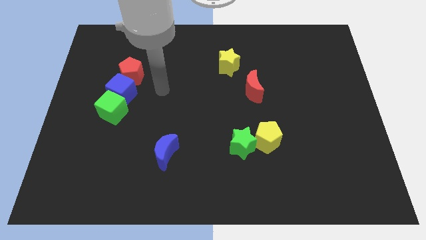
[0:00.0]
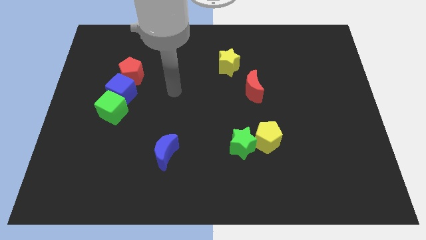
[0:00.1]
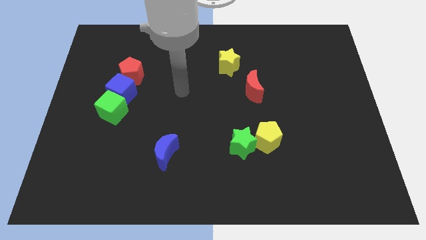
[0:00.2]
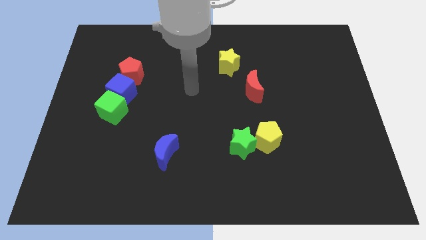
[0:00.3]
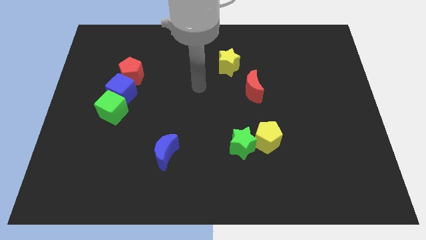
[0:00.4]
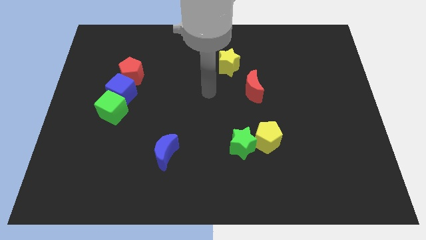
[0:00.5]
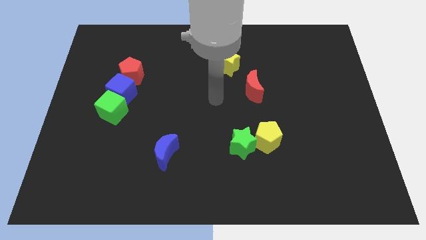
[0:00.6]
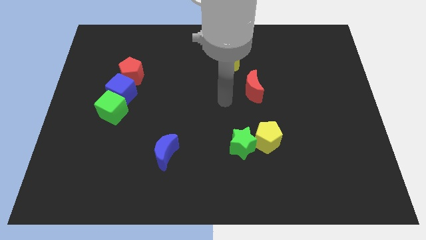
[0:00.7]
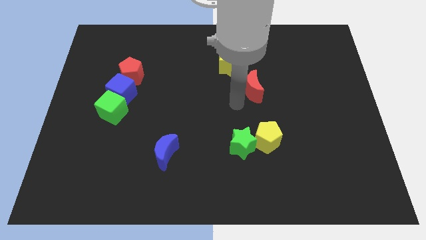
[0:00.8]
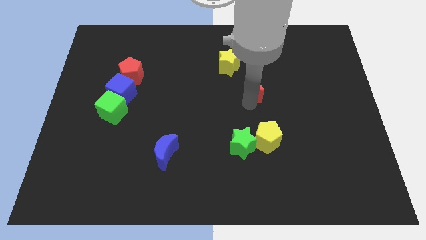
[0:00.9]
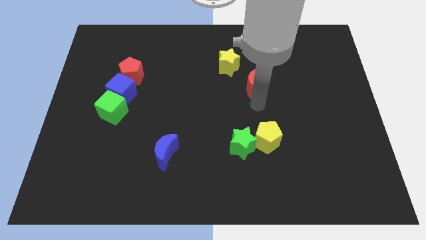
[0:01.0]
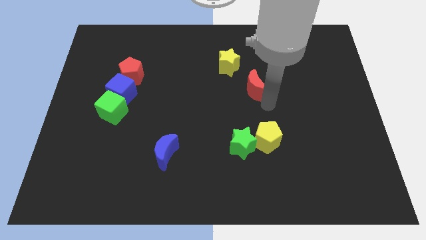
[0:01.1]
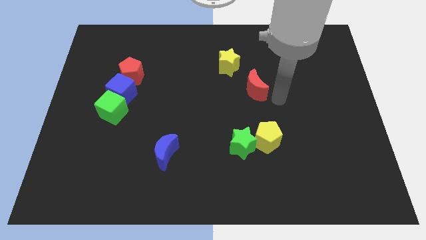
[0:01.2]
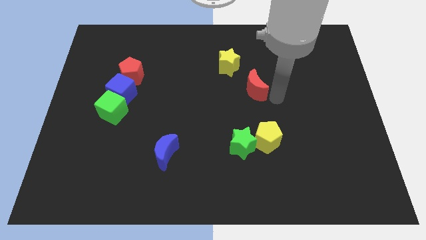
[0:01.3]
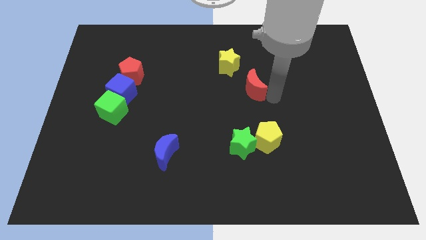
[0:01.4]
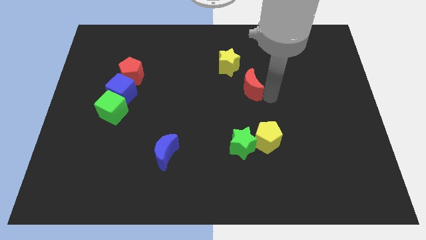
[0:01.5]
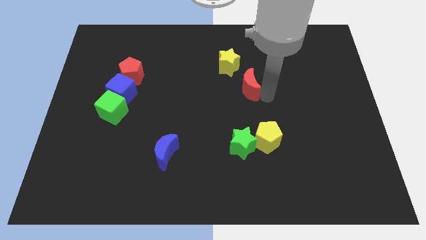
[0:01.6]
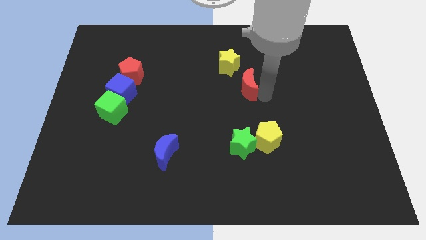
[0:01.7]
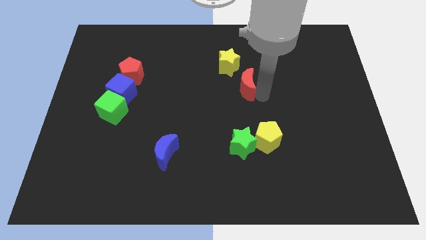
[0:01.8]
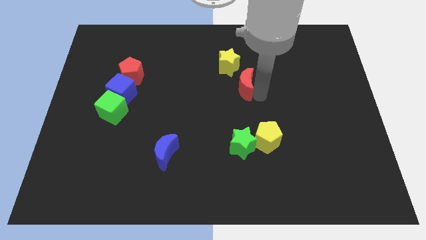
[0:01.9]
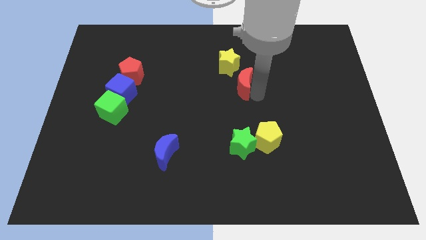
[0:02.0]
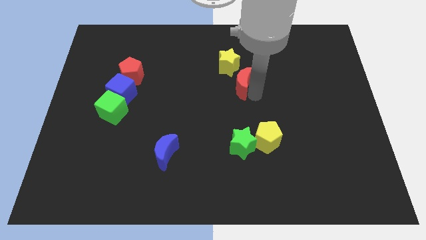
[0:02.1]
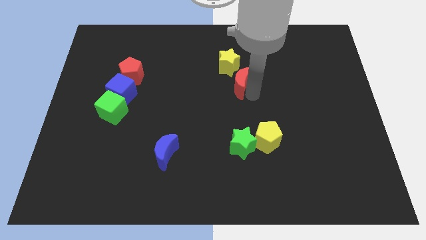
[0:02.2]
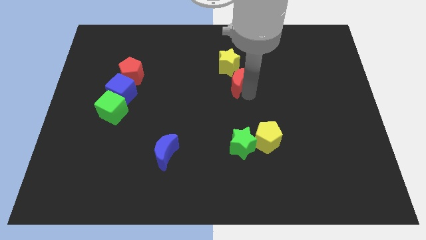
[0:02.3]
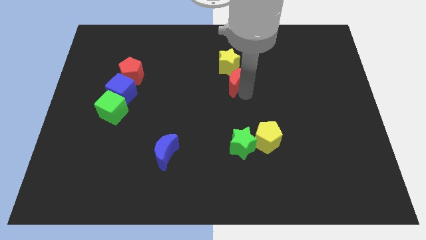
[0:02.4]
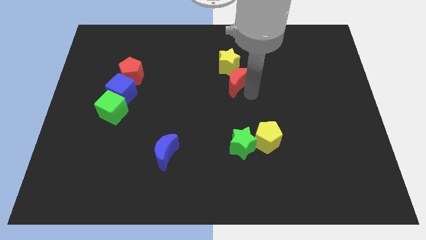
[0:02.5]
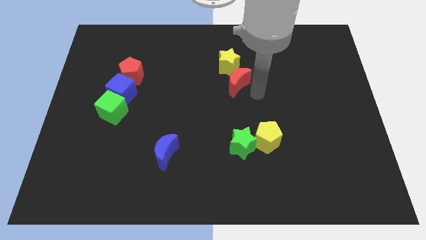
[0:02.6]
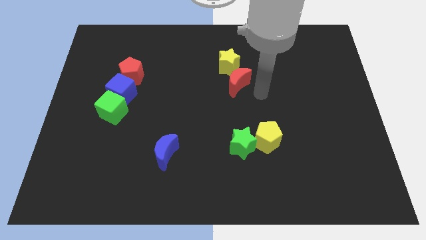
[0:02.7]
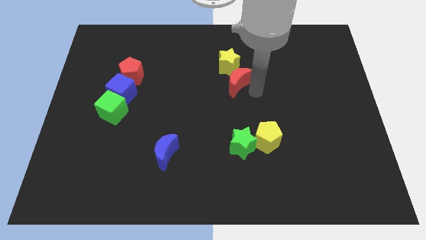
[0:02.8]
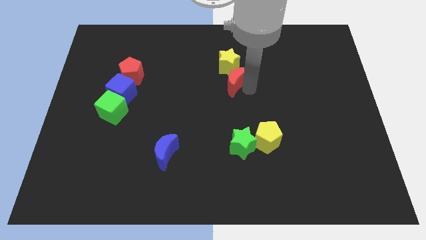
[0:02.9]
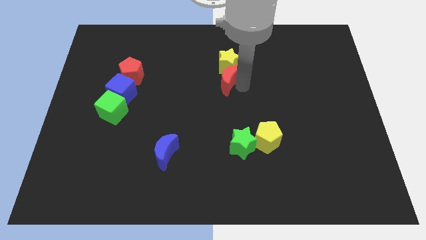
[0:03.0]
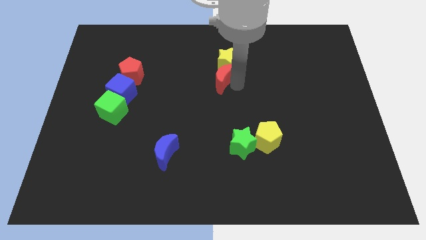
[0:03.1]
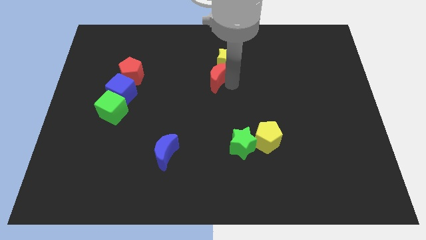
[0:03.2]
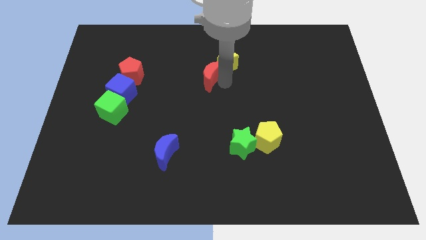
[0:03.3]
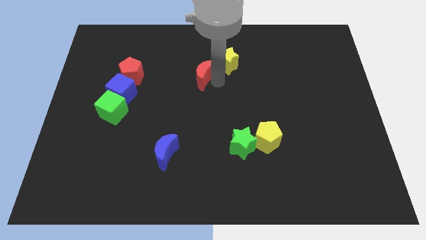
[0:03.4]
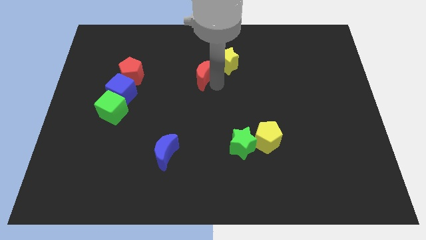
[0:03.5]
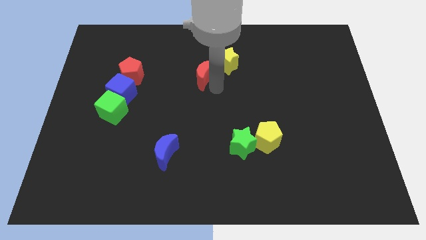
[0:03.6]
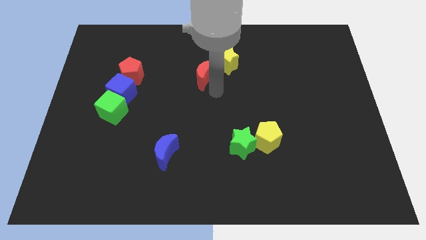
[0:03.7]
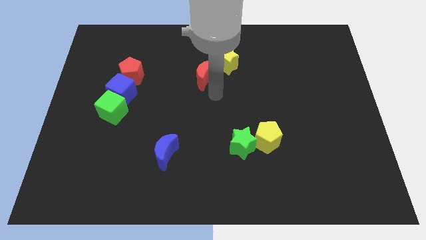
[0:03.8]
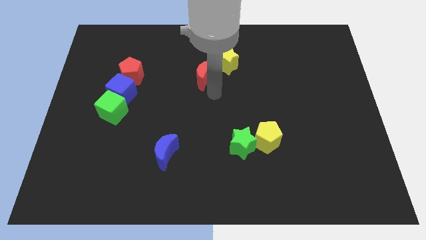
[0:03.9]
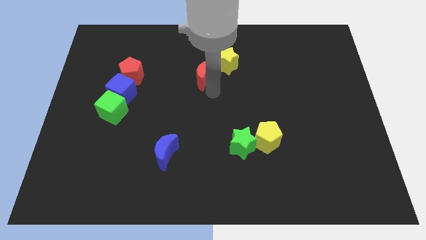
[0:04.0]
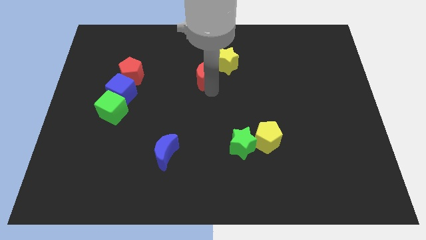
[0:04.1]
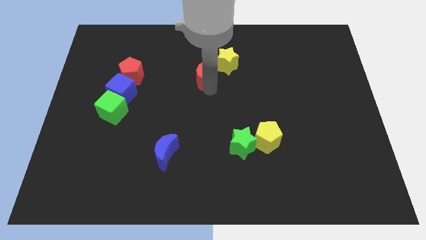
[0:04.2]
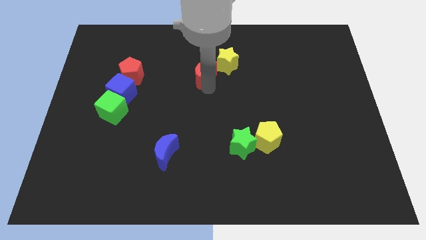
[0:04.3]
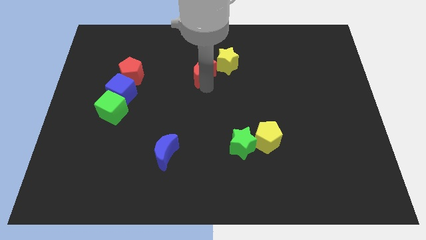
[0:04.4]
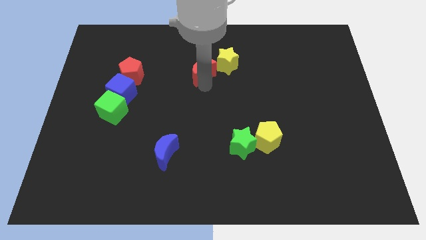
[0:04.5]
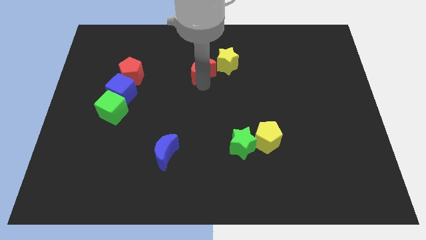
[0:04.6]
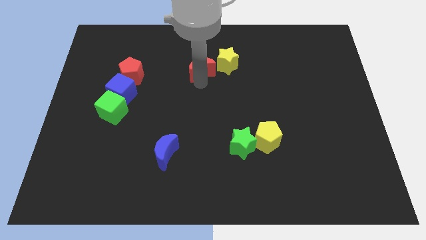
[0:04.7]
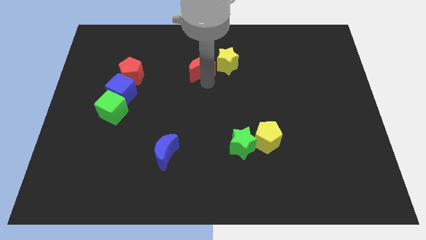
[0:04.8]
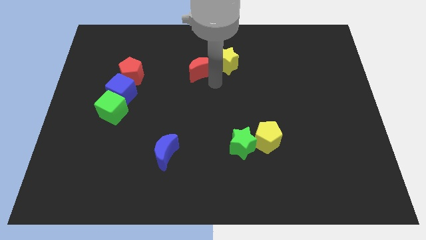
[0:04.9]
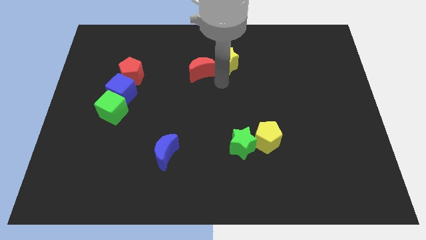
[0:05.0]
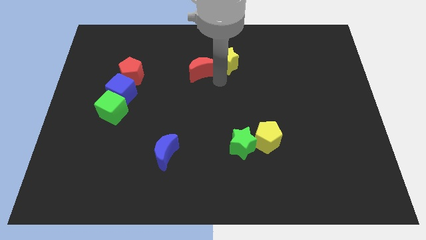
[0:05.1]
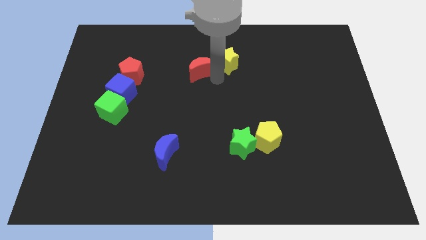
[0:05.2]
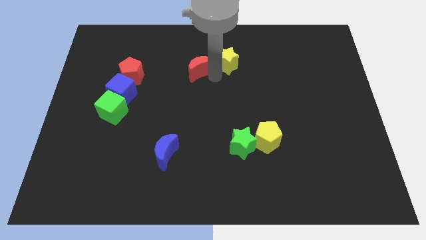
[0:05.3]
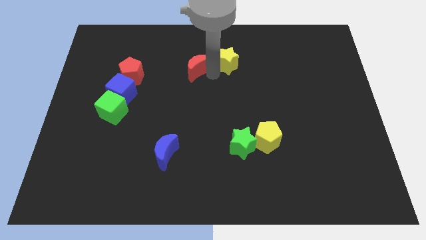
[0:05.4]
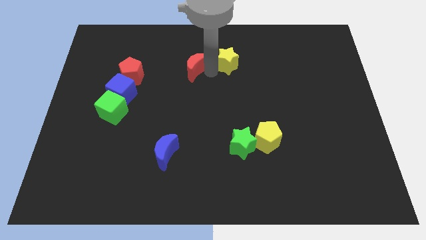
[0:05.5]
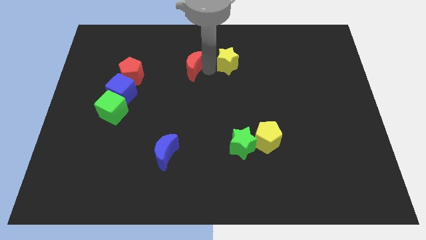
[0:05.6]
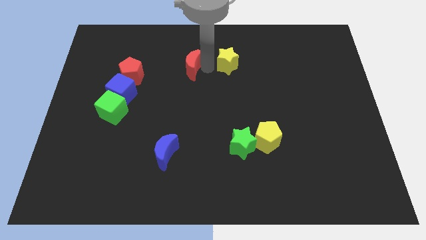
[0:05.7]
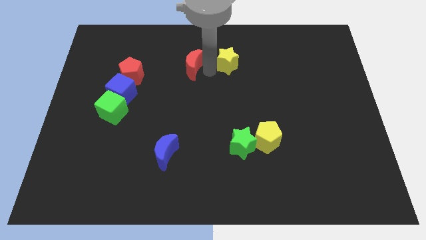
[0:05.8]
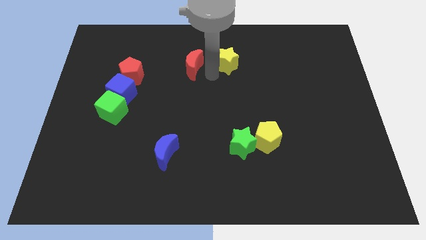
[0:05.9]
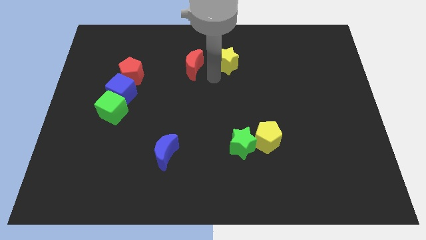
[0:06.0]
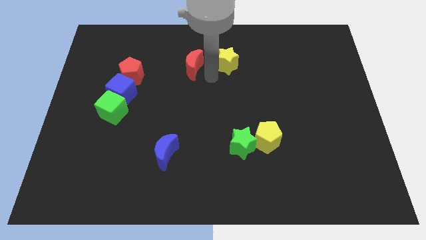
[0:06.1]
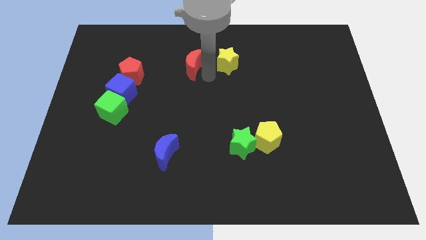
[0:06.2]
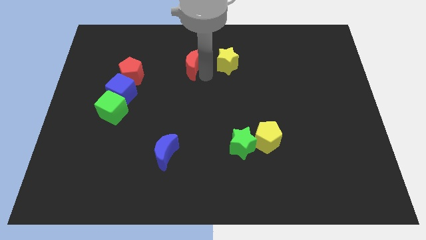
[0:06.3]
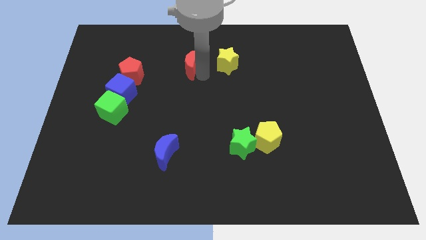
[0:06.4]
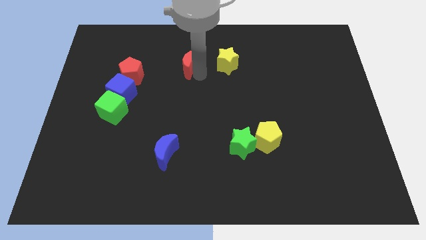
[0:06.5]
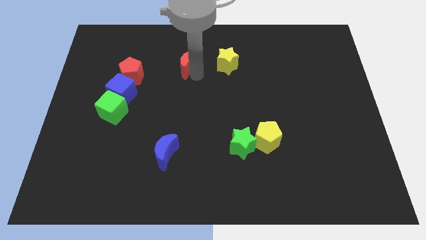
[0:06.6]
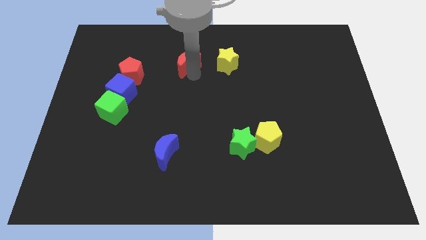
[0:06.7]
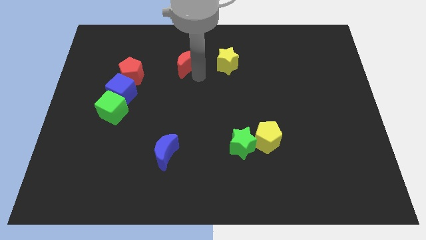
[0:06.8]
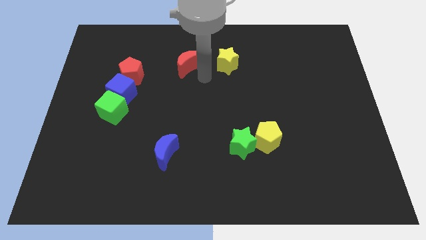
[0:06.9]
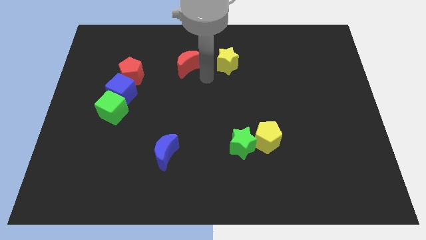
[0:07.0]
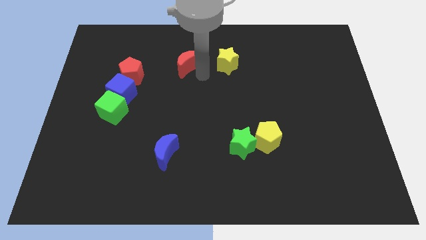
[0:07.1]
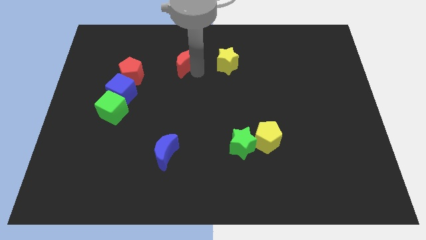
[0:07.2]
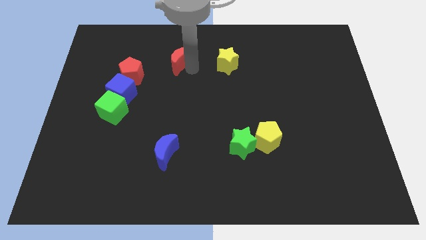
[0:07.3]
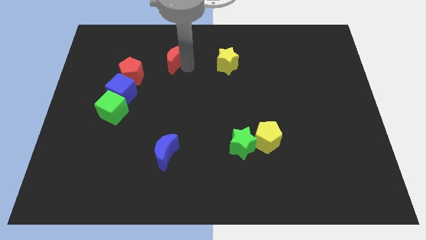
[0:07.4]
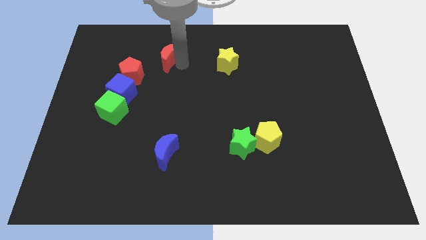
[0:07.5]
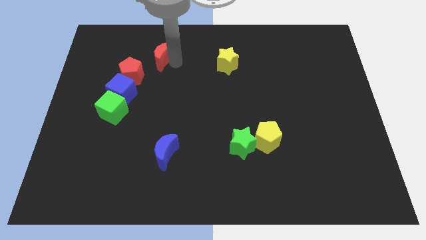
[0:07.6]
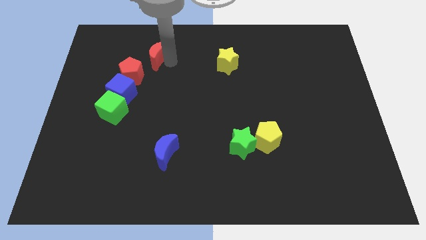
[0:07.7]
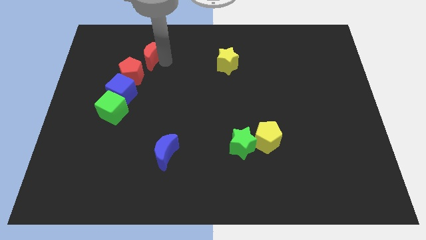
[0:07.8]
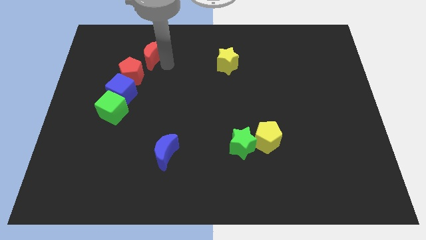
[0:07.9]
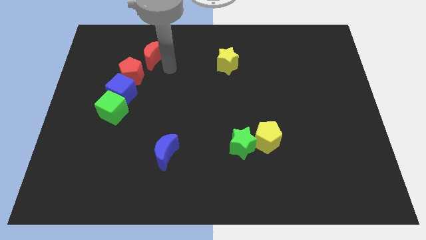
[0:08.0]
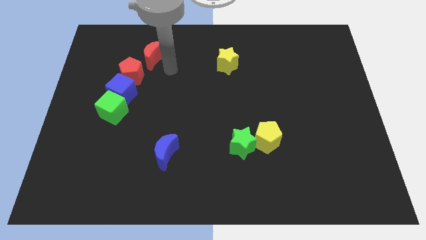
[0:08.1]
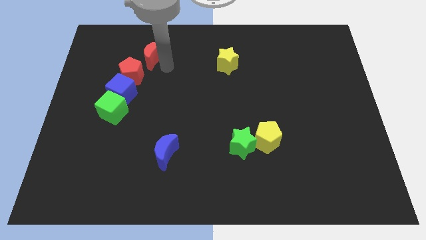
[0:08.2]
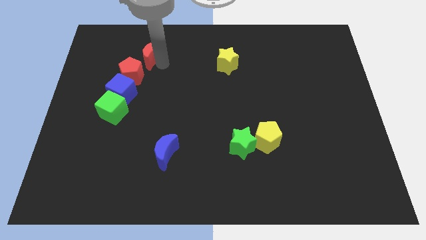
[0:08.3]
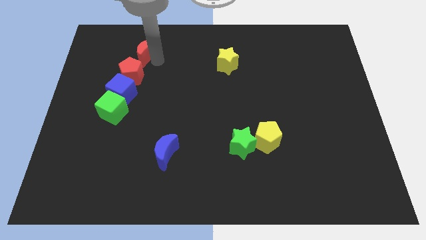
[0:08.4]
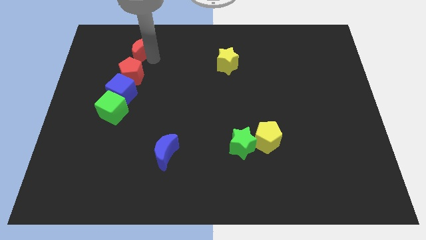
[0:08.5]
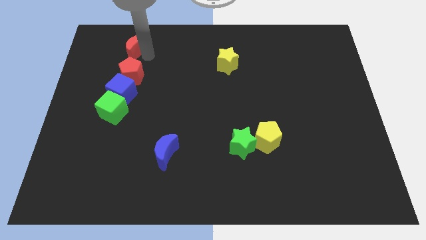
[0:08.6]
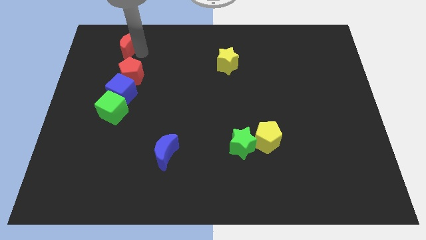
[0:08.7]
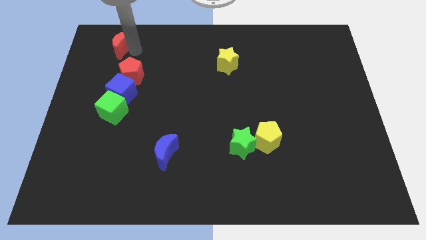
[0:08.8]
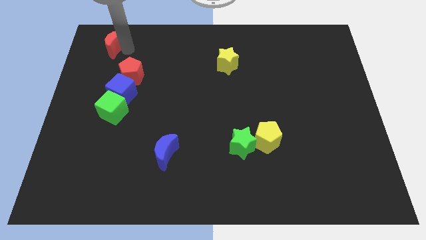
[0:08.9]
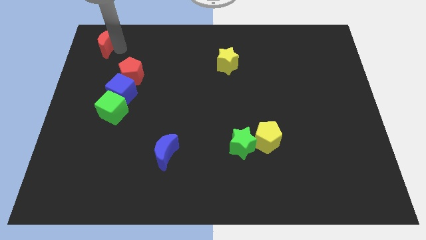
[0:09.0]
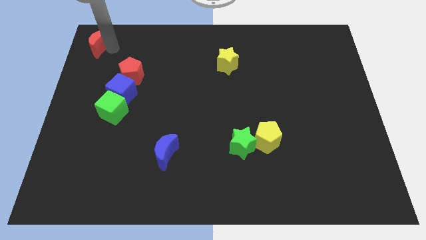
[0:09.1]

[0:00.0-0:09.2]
slide the red moon to the top left of the board
